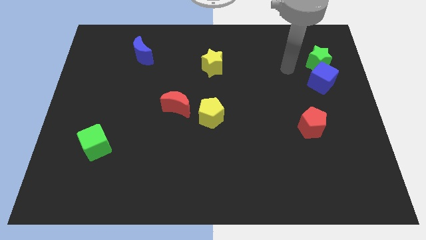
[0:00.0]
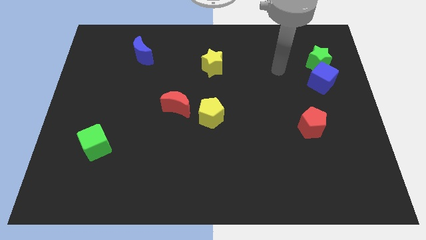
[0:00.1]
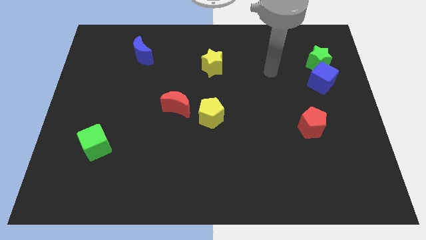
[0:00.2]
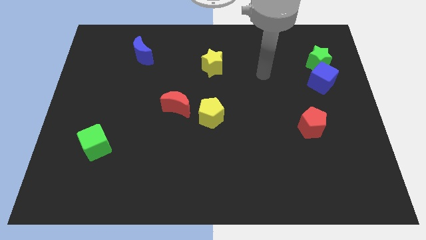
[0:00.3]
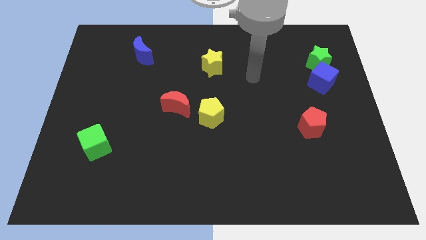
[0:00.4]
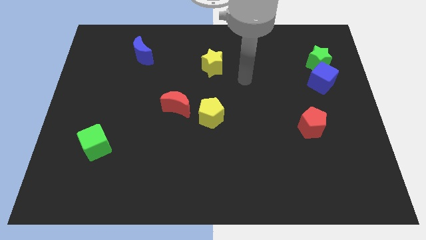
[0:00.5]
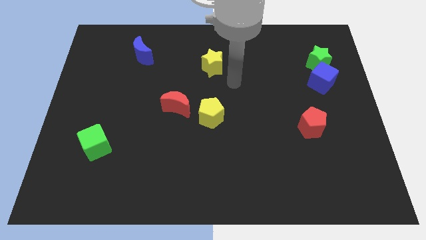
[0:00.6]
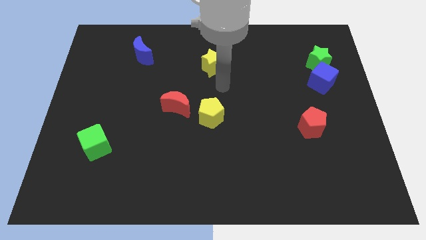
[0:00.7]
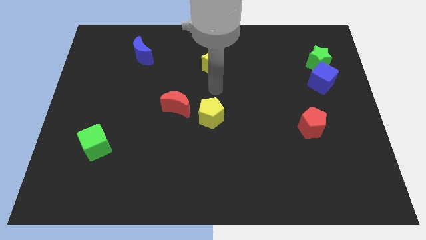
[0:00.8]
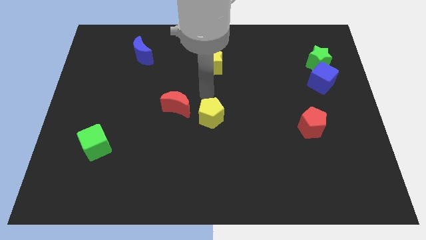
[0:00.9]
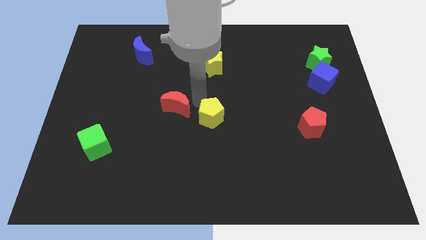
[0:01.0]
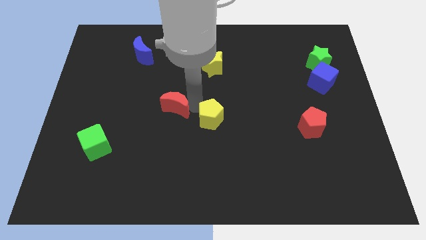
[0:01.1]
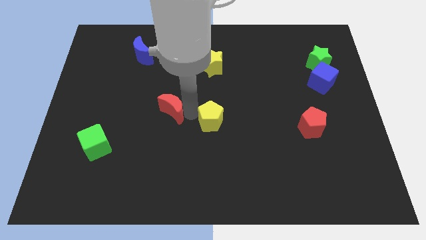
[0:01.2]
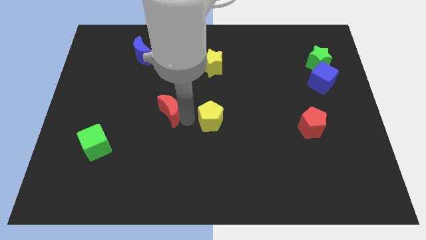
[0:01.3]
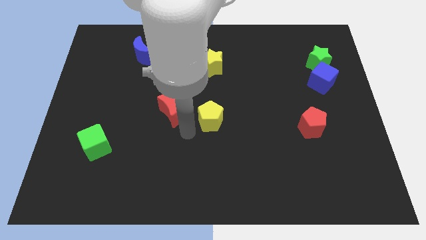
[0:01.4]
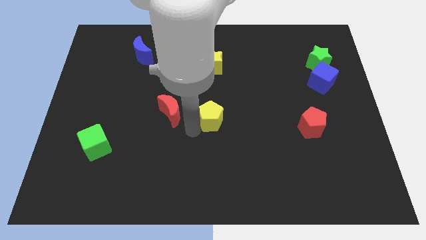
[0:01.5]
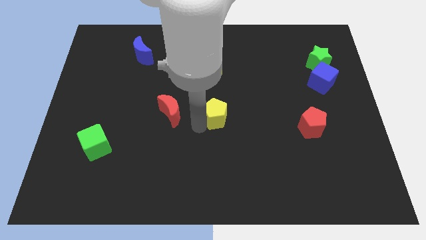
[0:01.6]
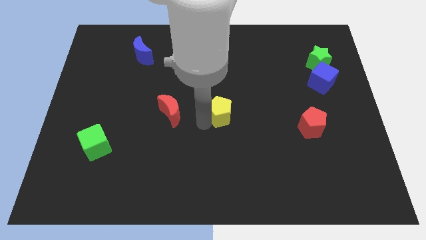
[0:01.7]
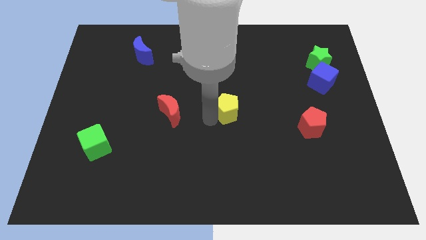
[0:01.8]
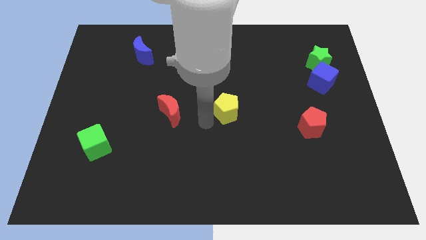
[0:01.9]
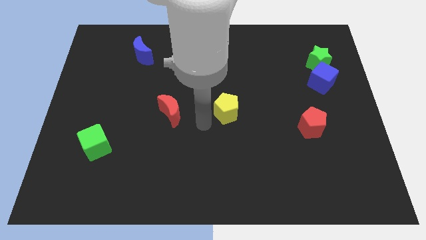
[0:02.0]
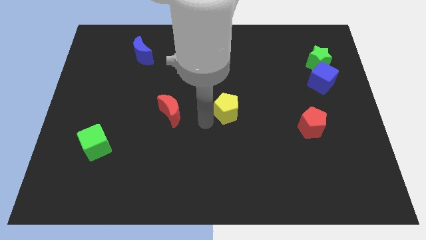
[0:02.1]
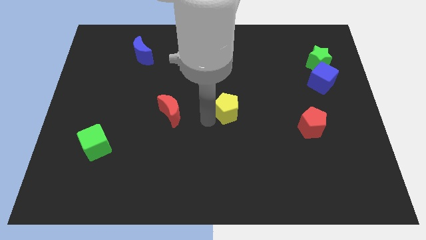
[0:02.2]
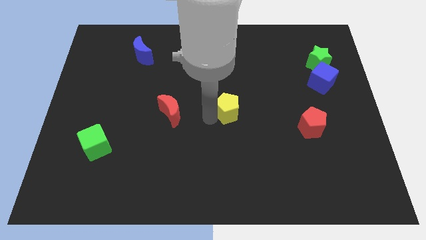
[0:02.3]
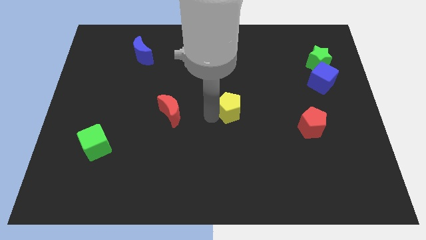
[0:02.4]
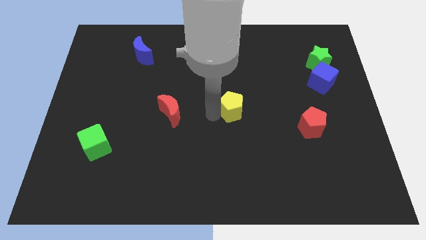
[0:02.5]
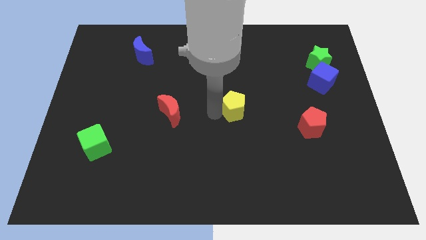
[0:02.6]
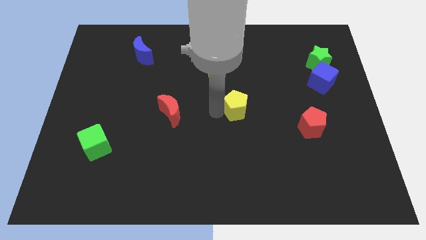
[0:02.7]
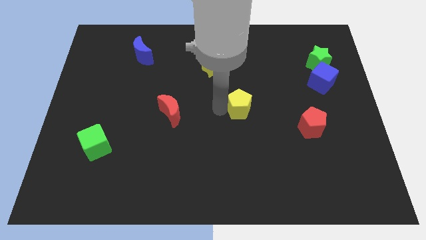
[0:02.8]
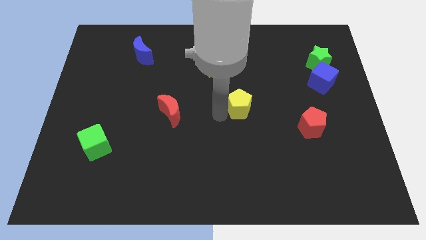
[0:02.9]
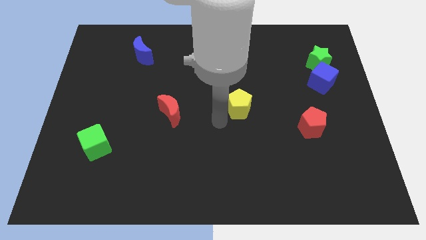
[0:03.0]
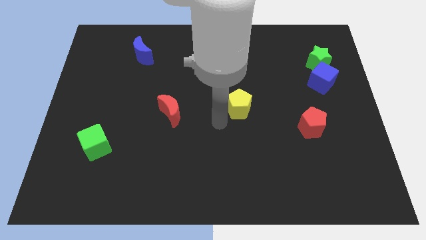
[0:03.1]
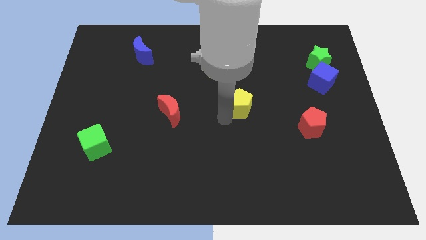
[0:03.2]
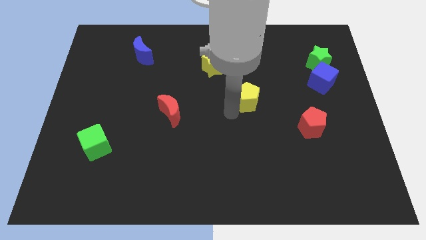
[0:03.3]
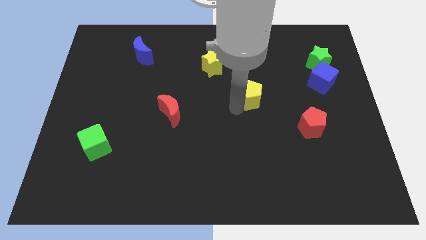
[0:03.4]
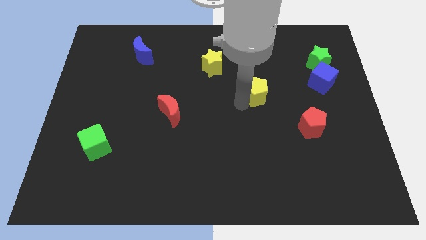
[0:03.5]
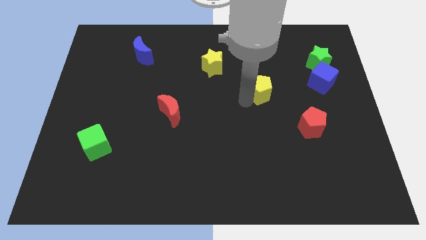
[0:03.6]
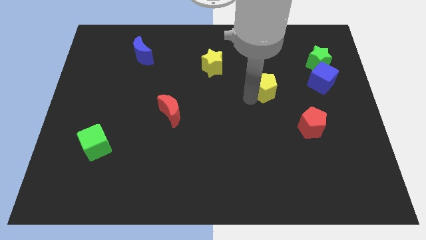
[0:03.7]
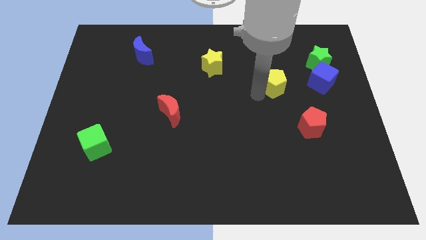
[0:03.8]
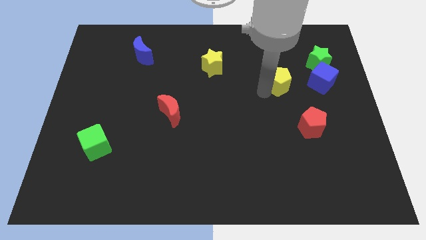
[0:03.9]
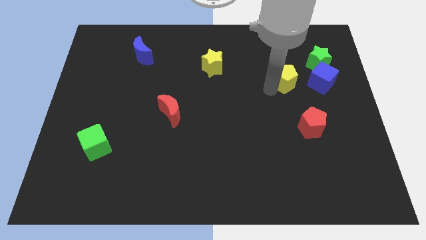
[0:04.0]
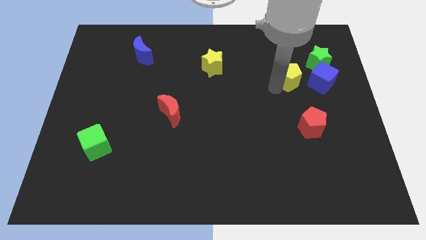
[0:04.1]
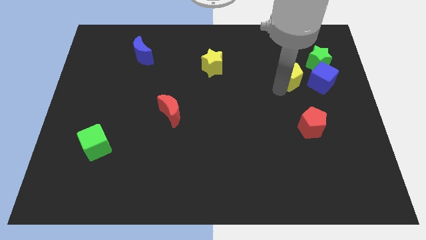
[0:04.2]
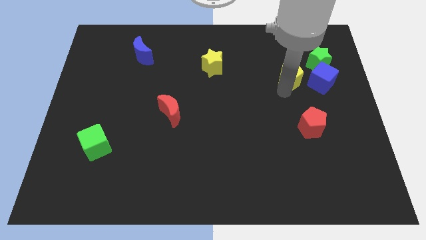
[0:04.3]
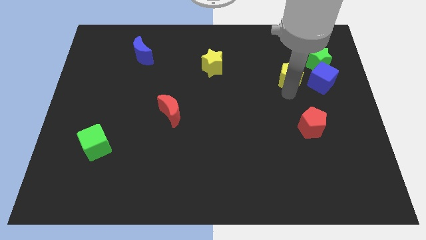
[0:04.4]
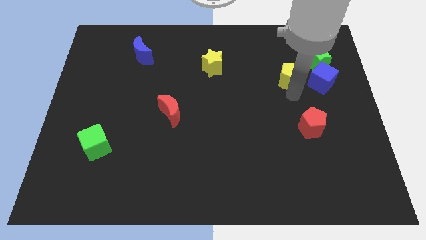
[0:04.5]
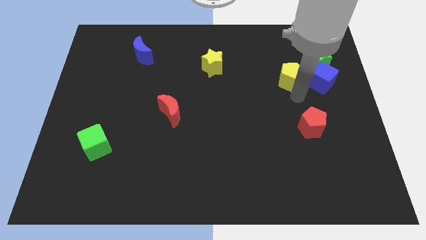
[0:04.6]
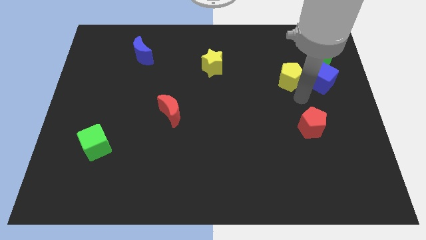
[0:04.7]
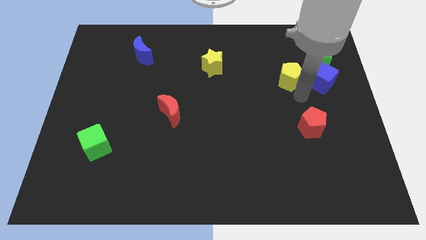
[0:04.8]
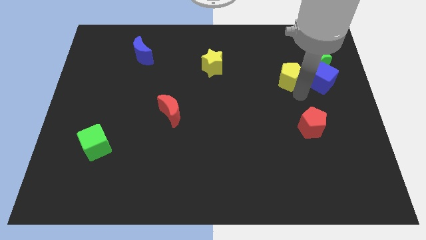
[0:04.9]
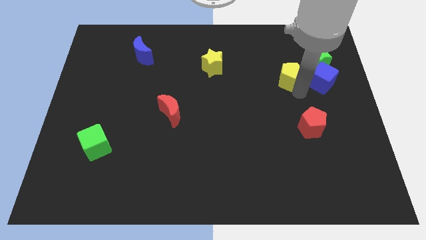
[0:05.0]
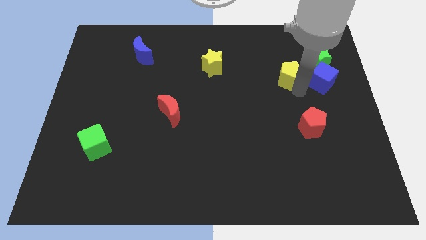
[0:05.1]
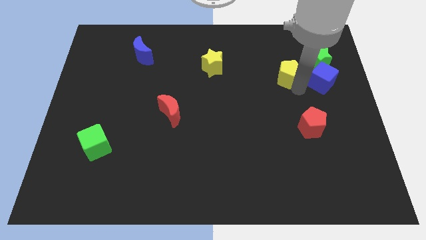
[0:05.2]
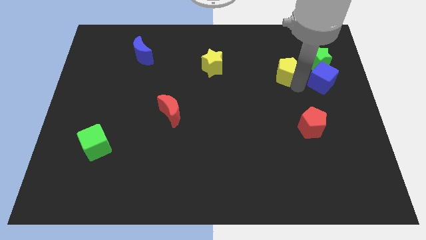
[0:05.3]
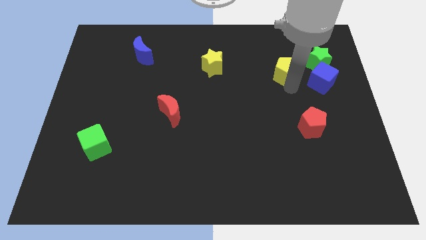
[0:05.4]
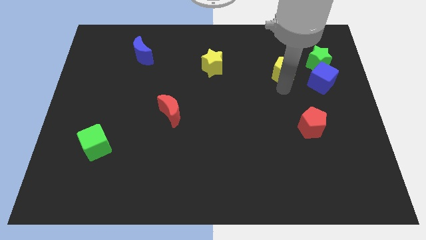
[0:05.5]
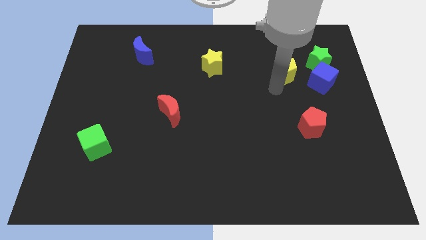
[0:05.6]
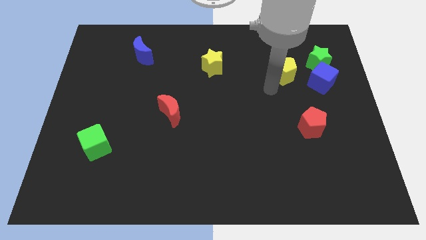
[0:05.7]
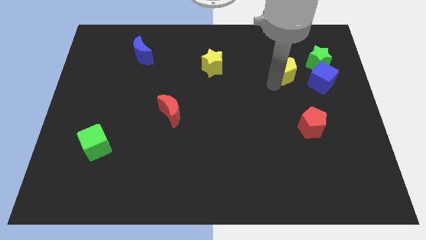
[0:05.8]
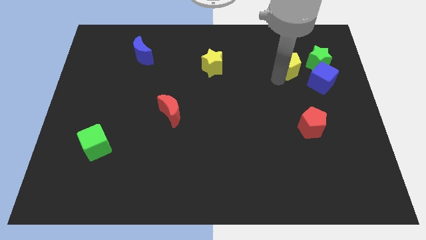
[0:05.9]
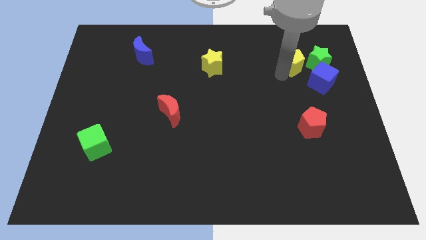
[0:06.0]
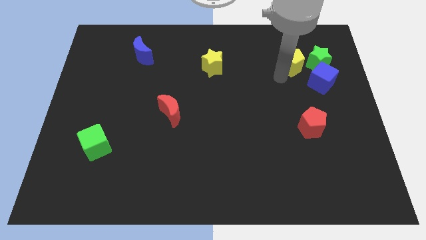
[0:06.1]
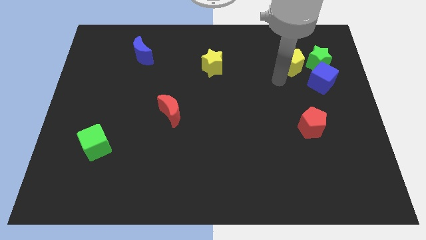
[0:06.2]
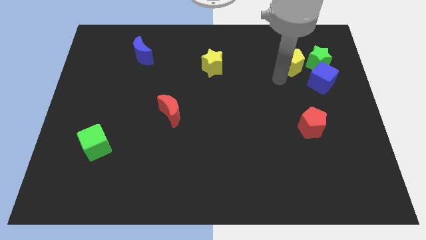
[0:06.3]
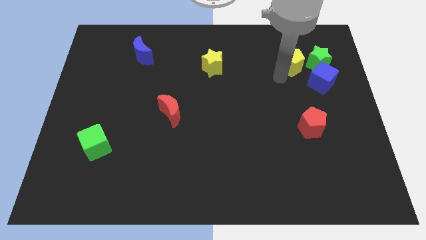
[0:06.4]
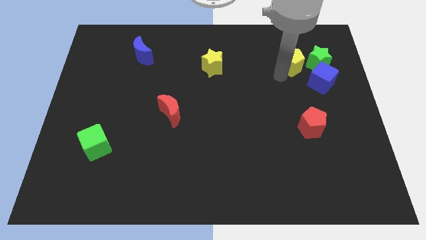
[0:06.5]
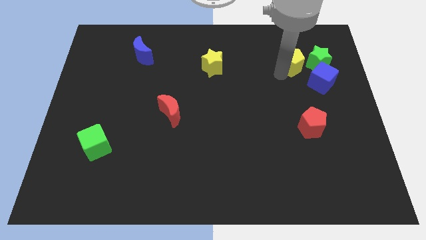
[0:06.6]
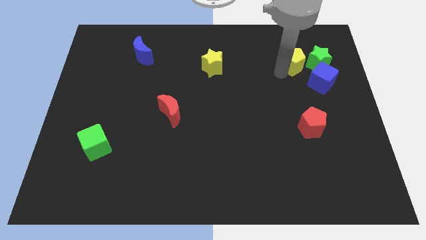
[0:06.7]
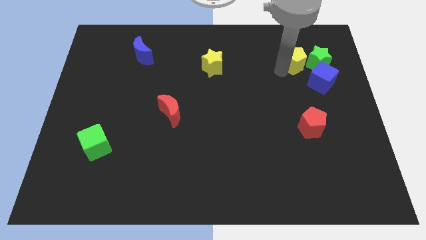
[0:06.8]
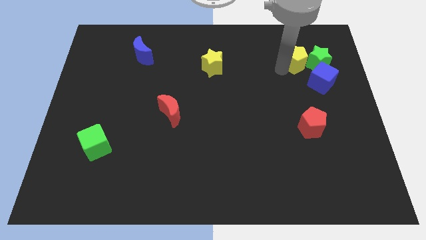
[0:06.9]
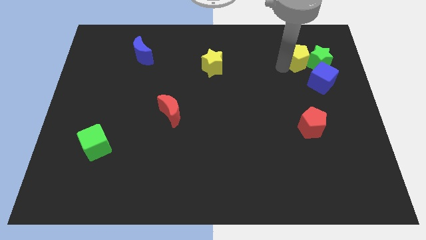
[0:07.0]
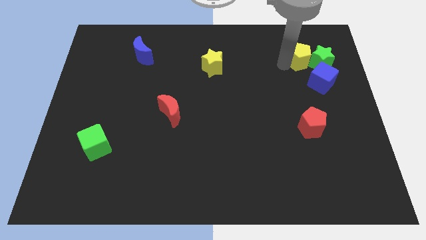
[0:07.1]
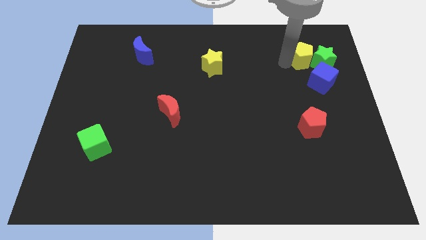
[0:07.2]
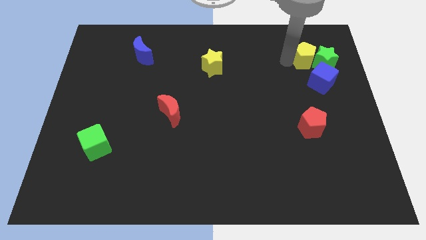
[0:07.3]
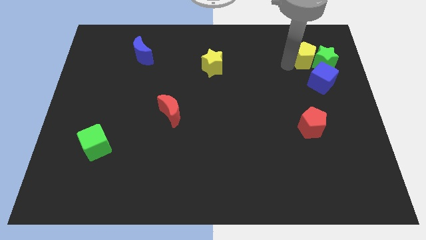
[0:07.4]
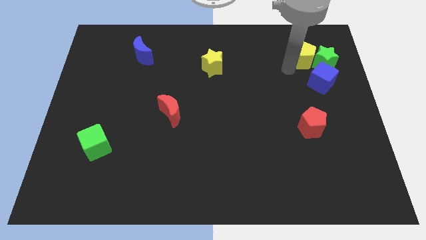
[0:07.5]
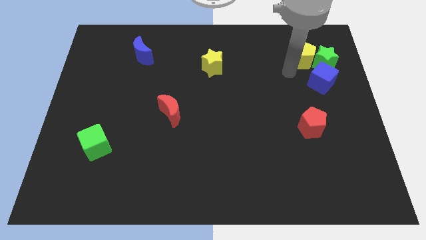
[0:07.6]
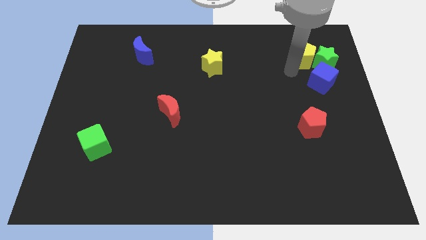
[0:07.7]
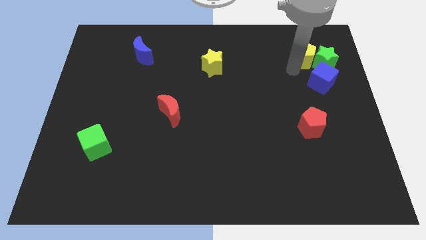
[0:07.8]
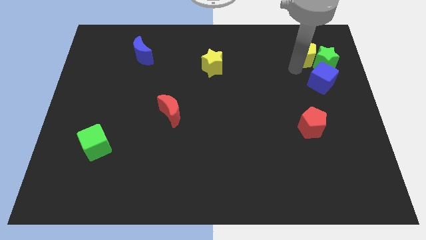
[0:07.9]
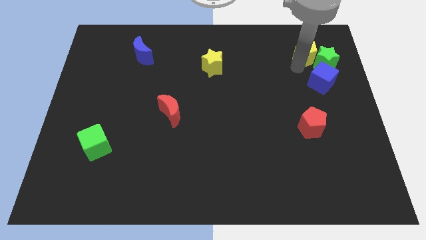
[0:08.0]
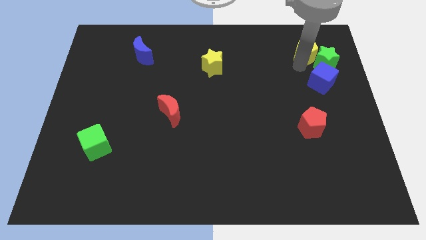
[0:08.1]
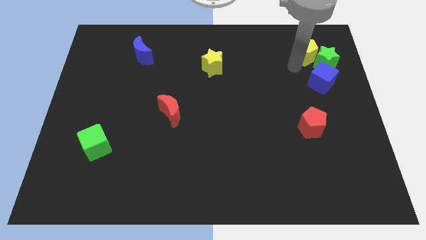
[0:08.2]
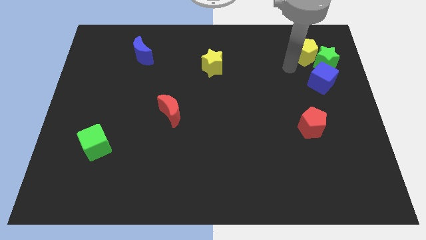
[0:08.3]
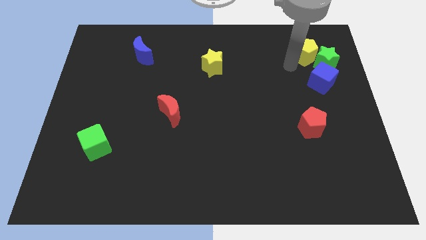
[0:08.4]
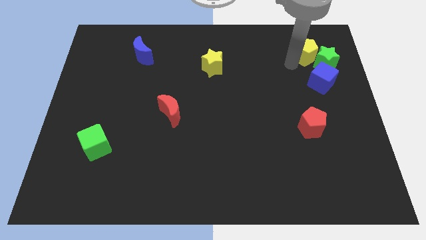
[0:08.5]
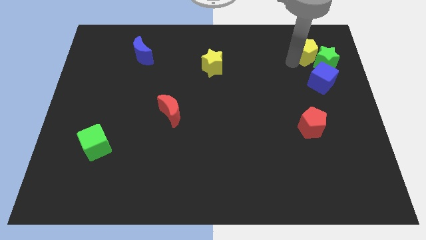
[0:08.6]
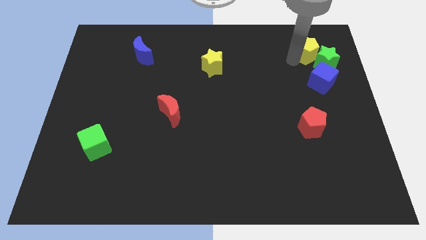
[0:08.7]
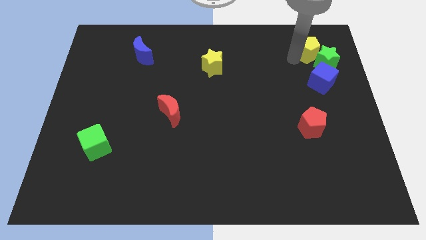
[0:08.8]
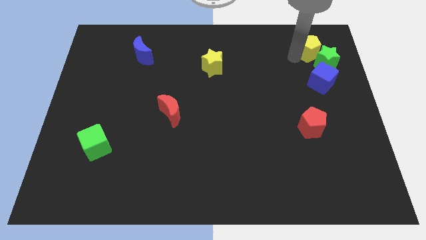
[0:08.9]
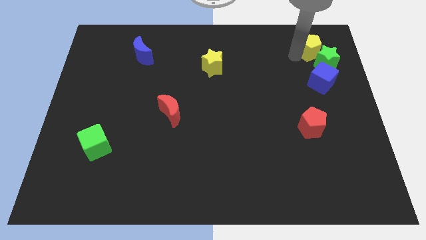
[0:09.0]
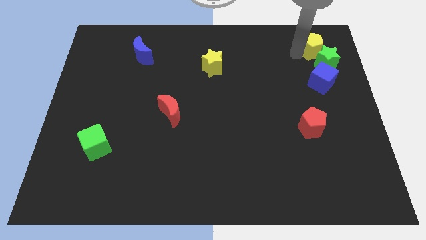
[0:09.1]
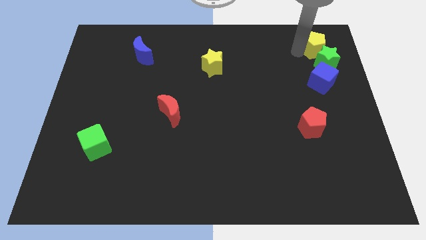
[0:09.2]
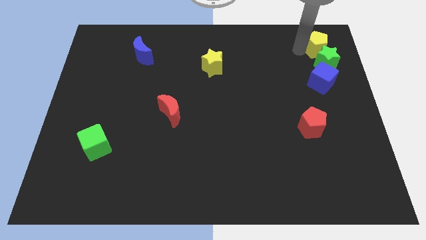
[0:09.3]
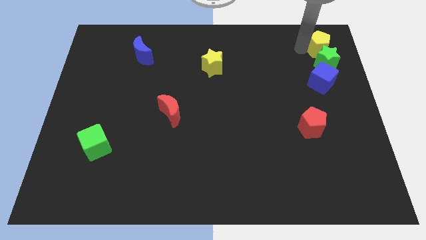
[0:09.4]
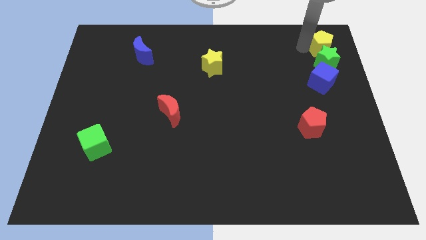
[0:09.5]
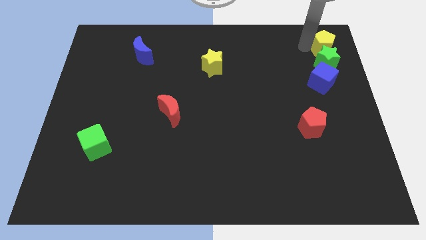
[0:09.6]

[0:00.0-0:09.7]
slide the yellow pentagon to the top right
